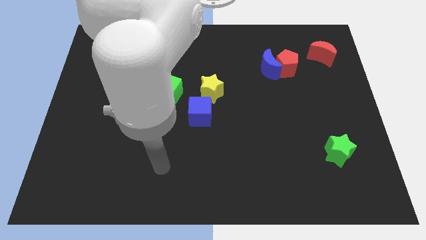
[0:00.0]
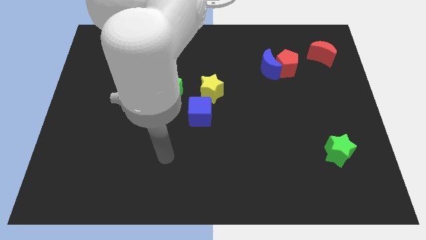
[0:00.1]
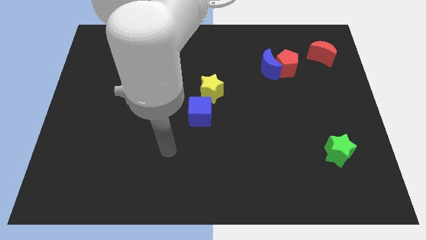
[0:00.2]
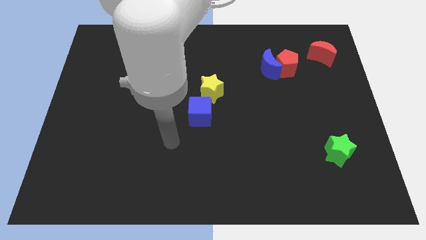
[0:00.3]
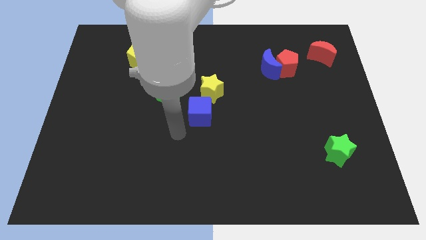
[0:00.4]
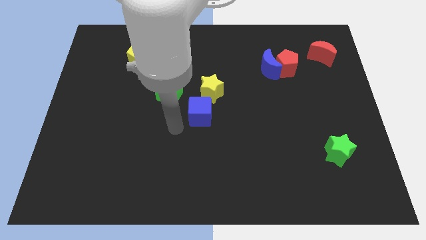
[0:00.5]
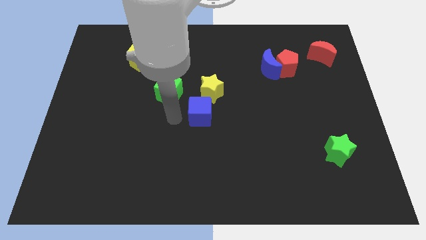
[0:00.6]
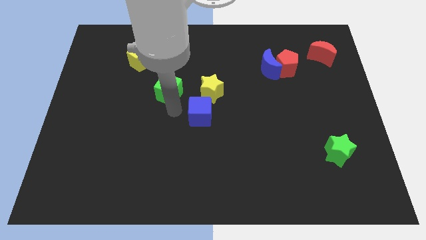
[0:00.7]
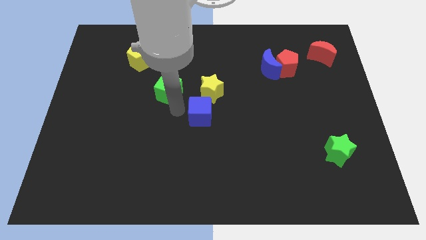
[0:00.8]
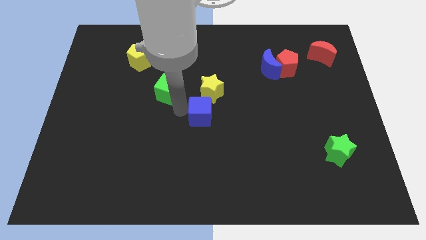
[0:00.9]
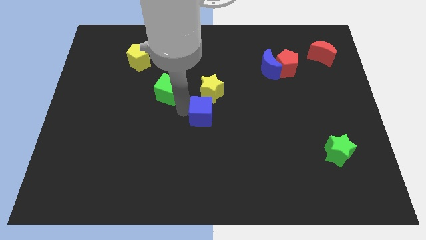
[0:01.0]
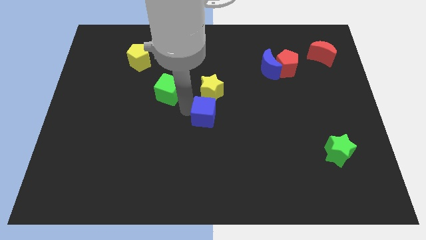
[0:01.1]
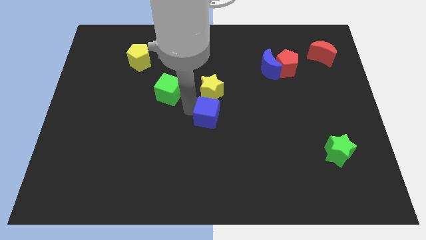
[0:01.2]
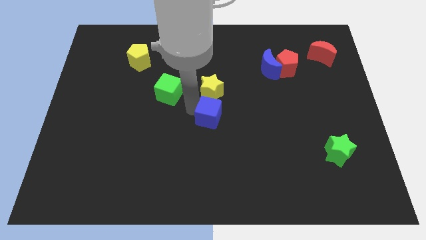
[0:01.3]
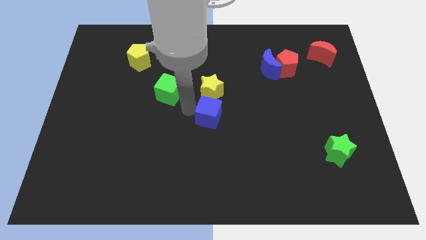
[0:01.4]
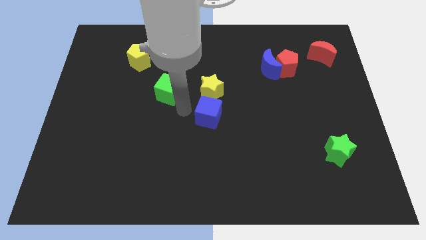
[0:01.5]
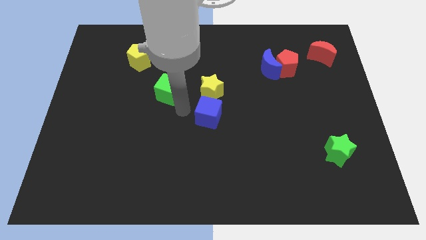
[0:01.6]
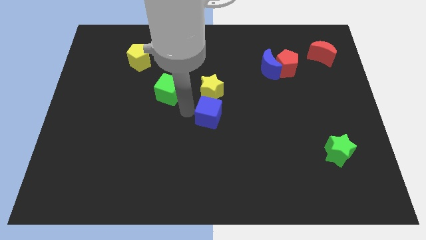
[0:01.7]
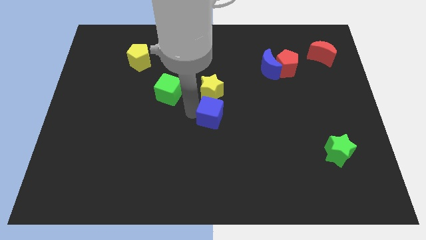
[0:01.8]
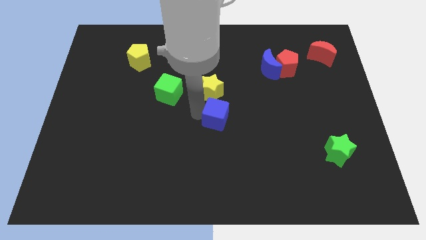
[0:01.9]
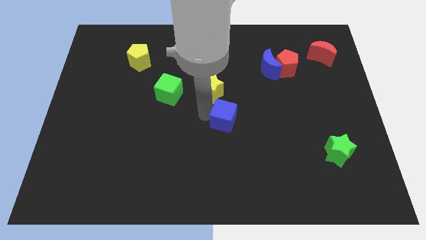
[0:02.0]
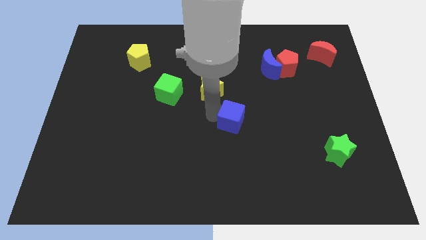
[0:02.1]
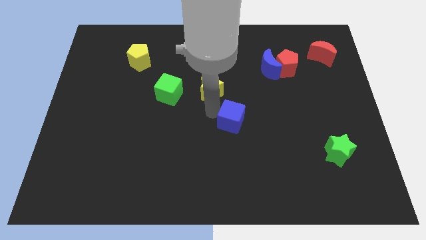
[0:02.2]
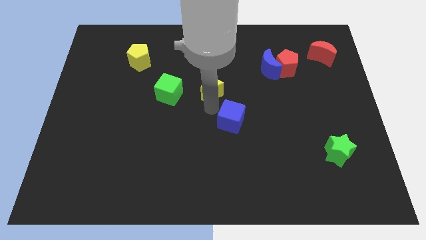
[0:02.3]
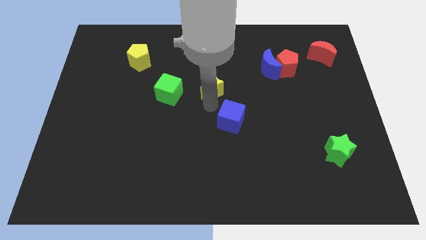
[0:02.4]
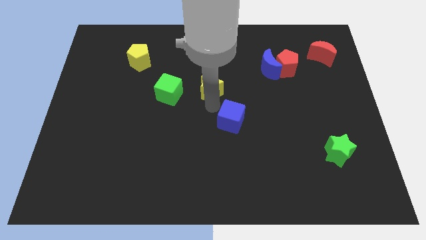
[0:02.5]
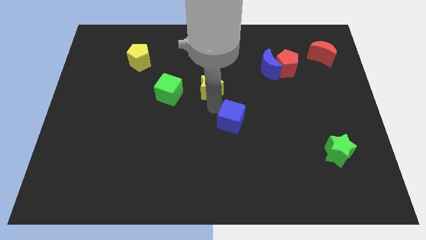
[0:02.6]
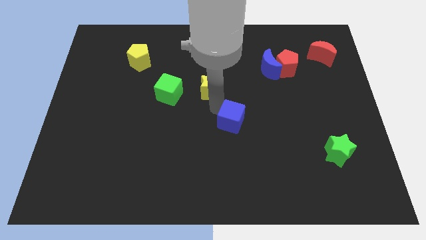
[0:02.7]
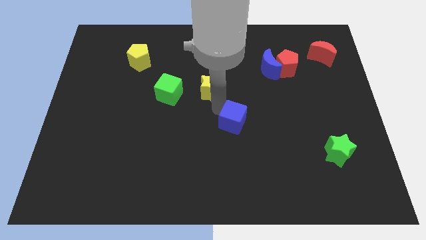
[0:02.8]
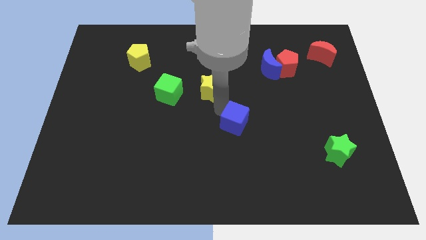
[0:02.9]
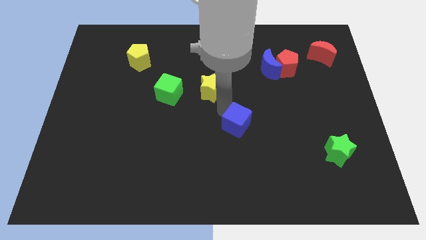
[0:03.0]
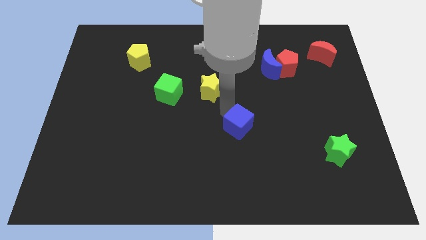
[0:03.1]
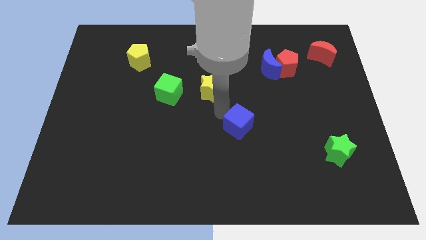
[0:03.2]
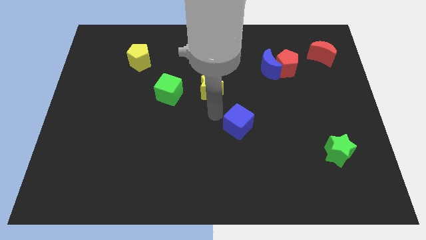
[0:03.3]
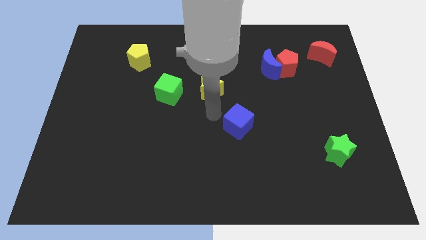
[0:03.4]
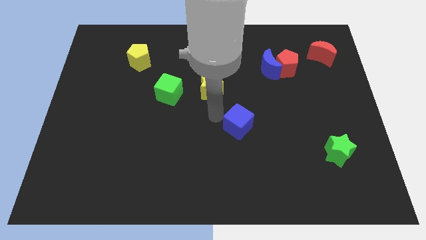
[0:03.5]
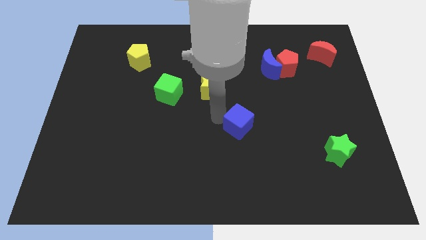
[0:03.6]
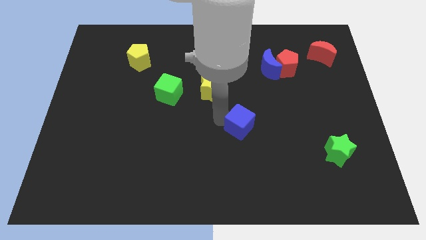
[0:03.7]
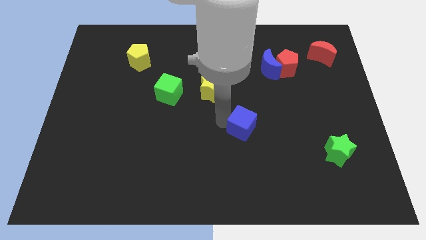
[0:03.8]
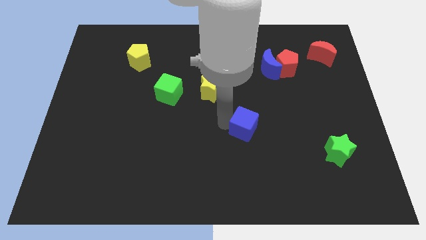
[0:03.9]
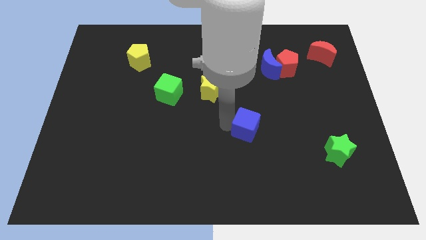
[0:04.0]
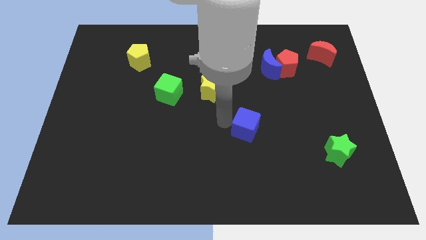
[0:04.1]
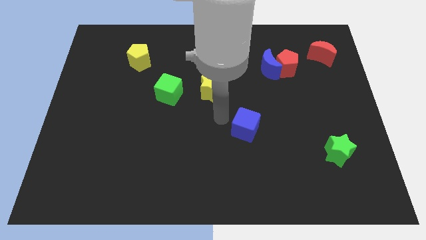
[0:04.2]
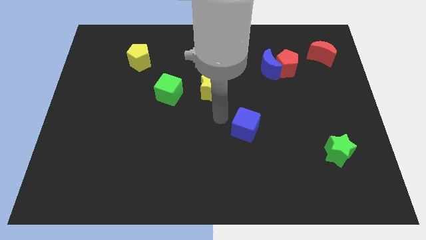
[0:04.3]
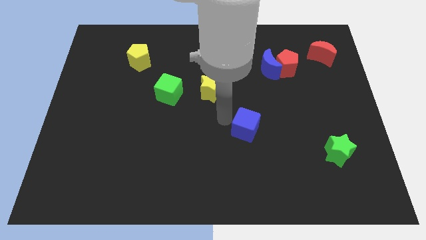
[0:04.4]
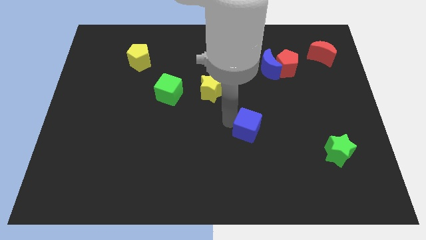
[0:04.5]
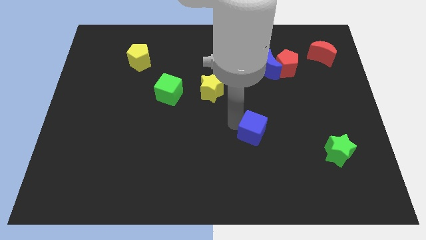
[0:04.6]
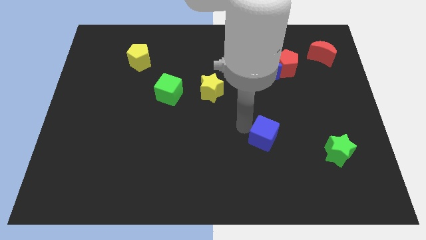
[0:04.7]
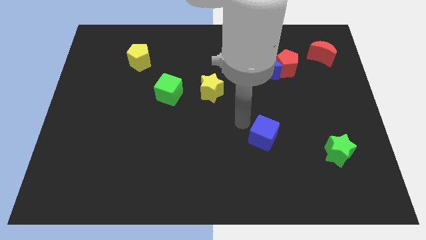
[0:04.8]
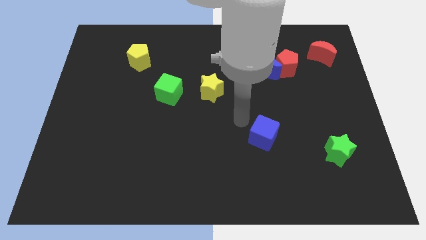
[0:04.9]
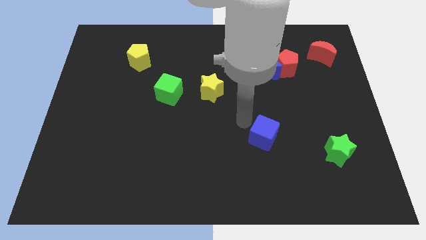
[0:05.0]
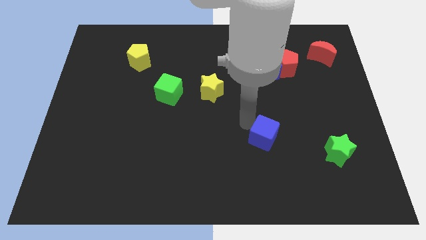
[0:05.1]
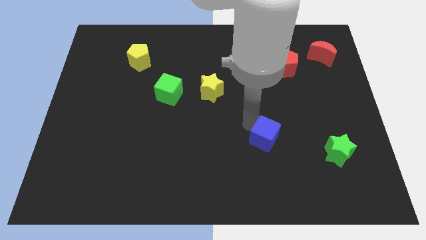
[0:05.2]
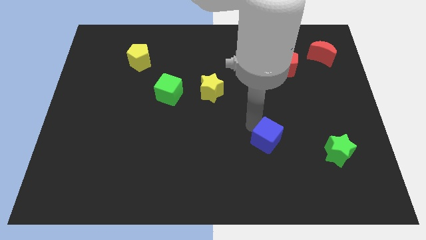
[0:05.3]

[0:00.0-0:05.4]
put the blue cube to the left of the green star
